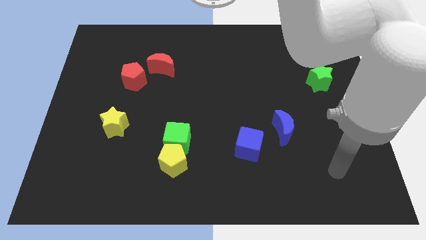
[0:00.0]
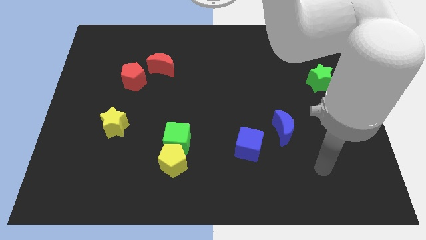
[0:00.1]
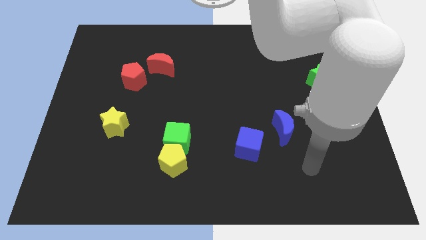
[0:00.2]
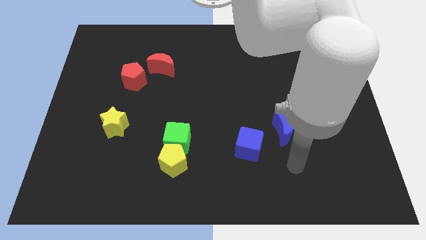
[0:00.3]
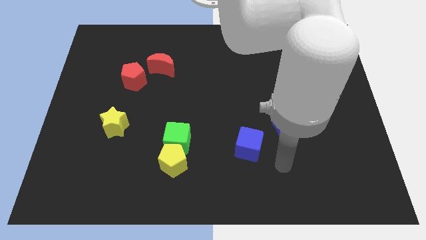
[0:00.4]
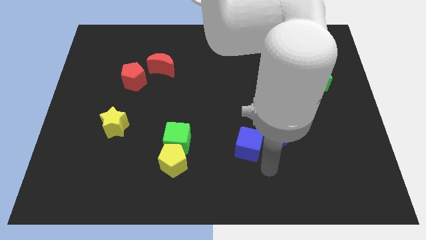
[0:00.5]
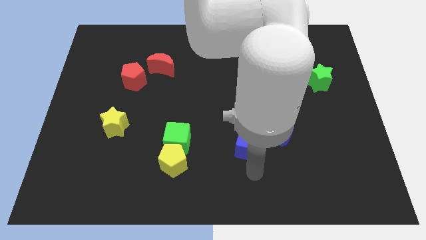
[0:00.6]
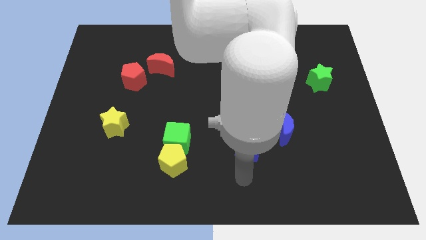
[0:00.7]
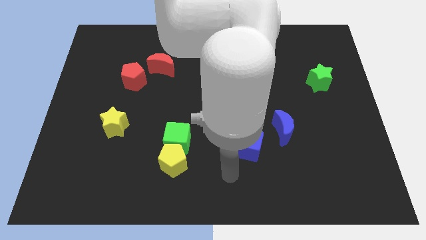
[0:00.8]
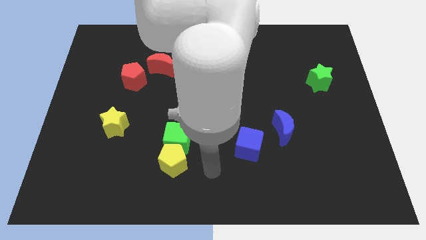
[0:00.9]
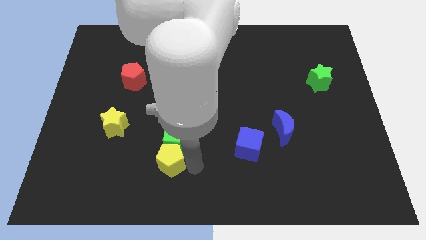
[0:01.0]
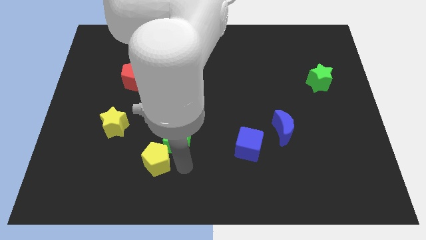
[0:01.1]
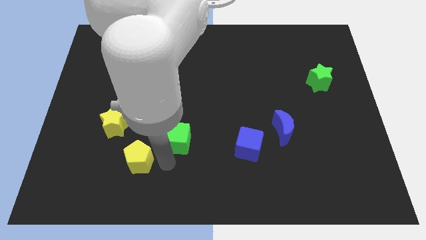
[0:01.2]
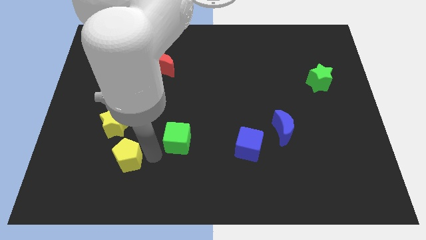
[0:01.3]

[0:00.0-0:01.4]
move the green cube away from the yellow pentagon

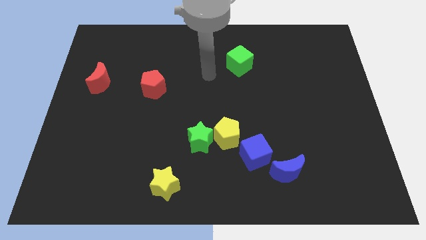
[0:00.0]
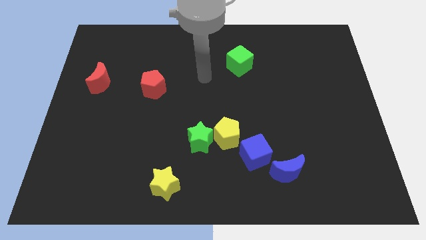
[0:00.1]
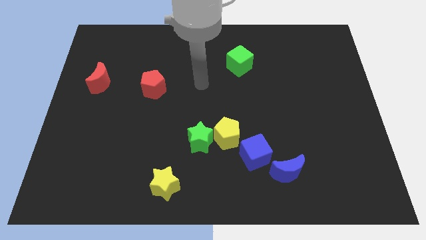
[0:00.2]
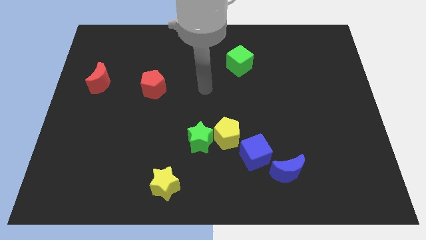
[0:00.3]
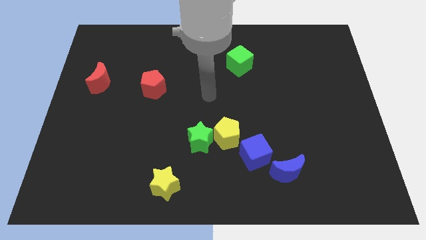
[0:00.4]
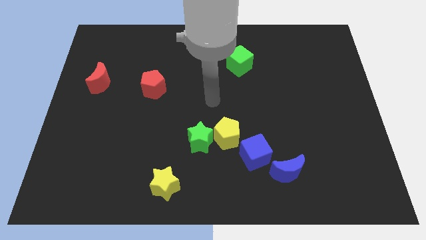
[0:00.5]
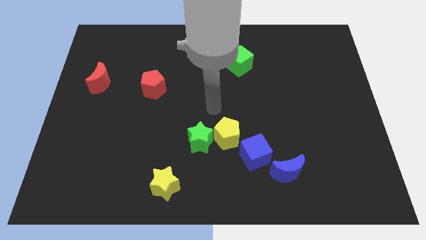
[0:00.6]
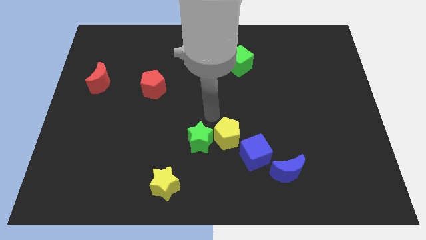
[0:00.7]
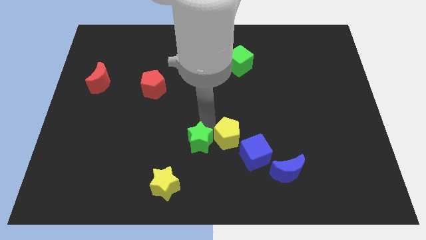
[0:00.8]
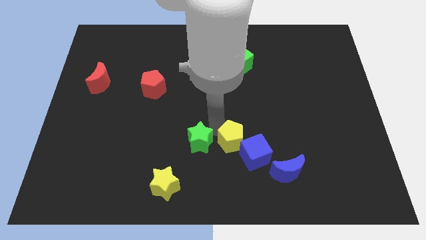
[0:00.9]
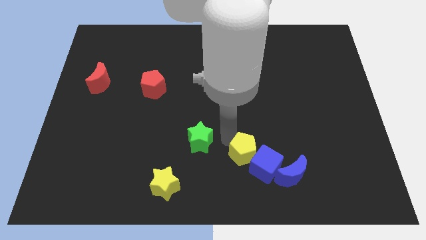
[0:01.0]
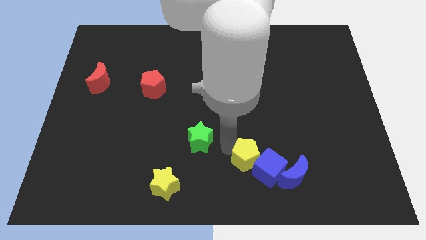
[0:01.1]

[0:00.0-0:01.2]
pull the green star apart from the yellow pentagon

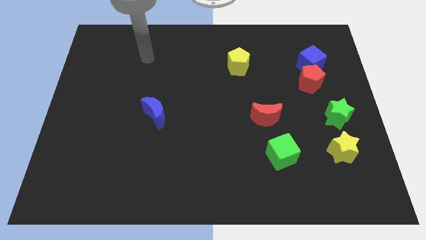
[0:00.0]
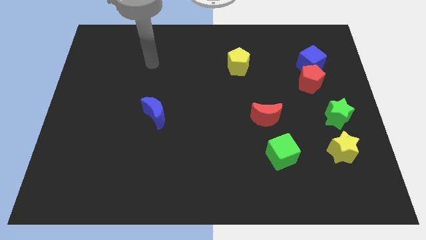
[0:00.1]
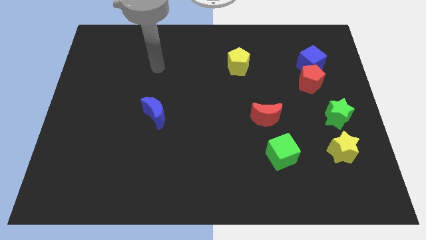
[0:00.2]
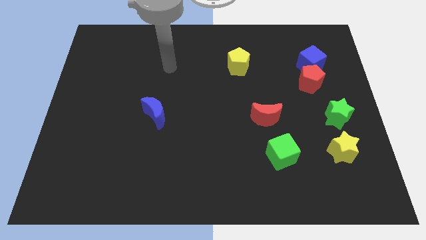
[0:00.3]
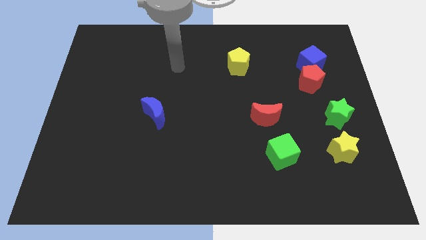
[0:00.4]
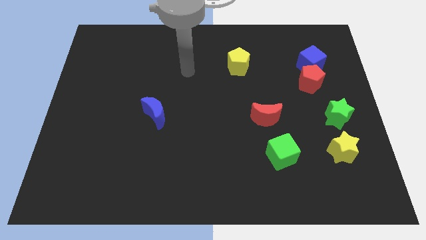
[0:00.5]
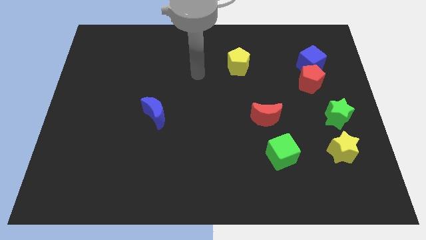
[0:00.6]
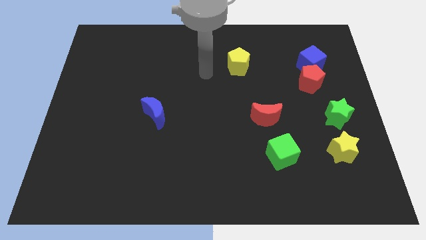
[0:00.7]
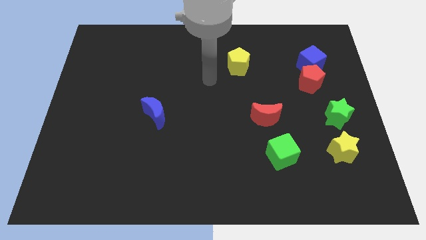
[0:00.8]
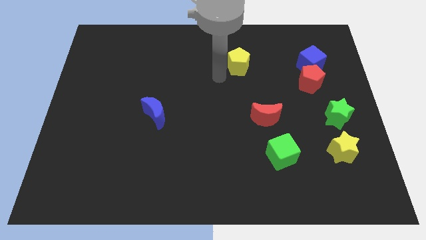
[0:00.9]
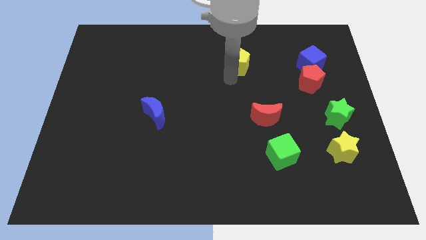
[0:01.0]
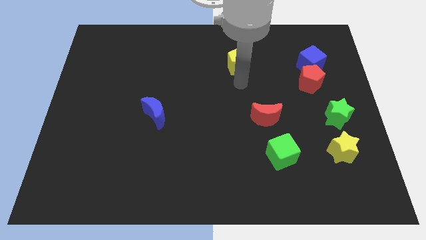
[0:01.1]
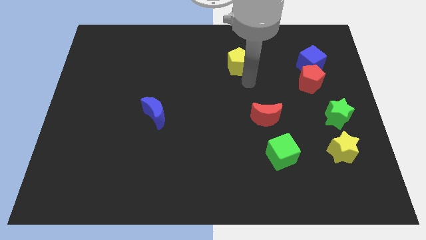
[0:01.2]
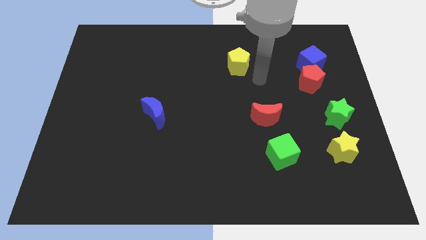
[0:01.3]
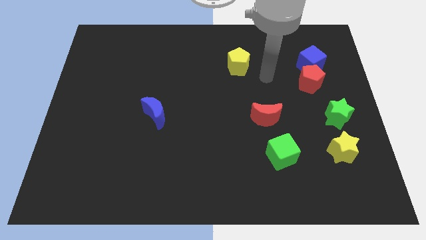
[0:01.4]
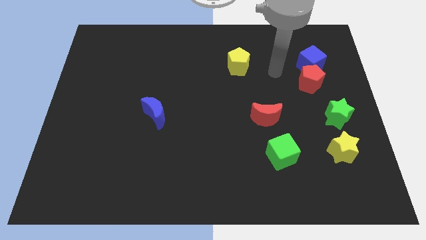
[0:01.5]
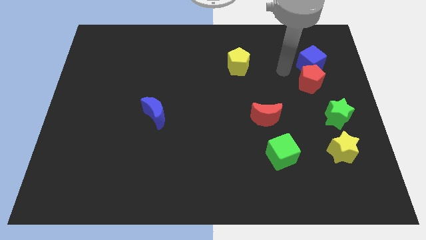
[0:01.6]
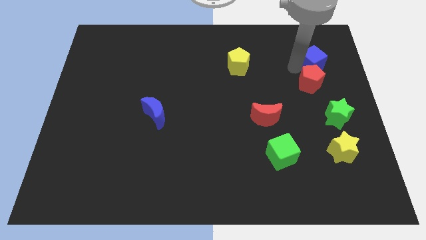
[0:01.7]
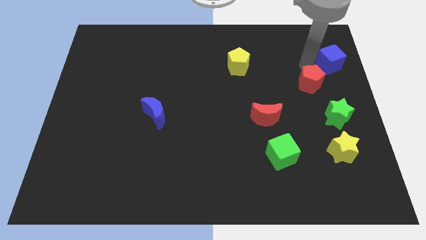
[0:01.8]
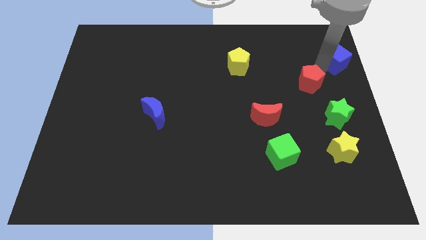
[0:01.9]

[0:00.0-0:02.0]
pull the red pentagon apart from the blue cube

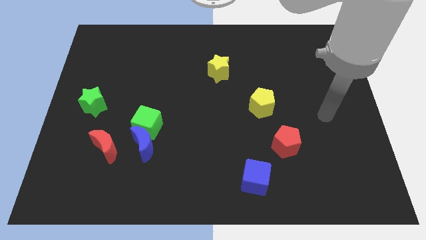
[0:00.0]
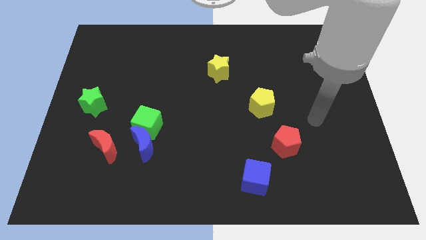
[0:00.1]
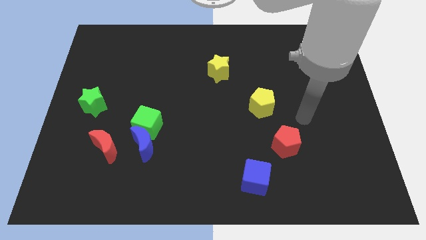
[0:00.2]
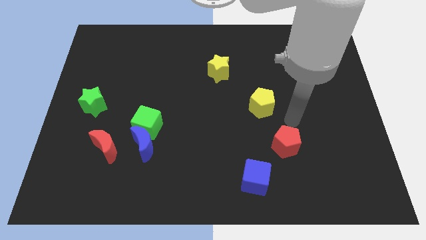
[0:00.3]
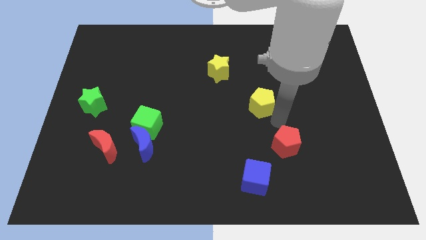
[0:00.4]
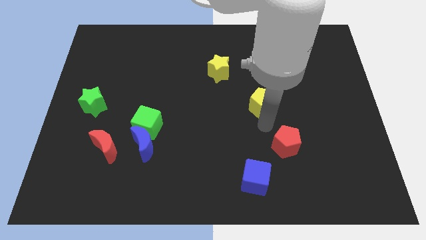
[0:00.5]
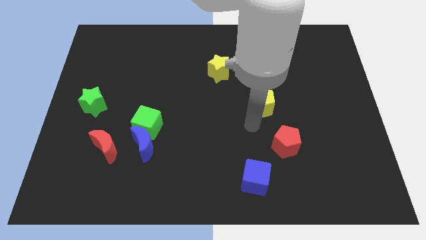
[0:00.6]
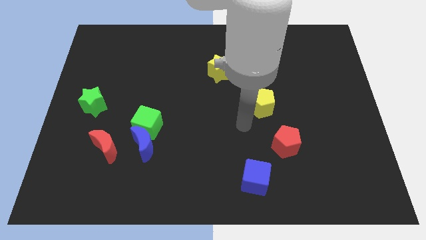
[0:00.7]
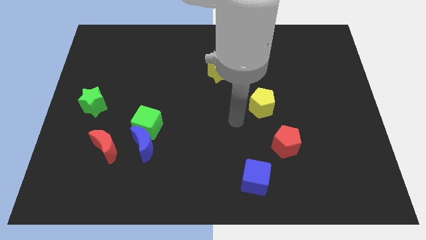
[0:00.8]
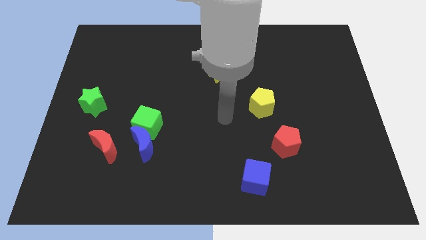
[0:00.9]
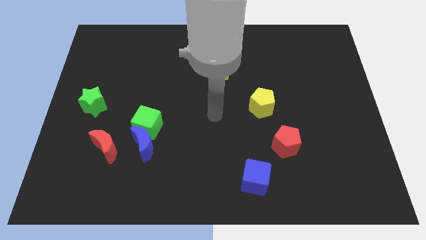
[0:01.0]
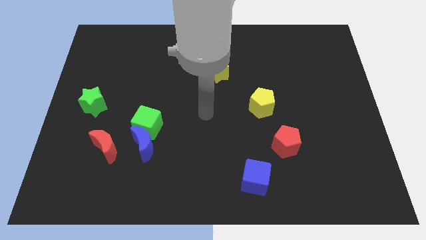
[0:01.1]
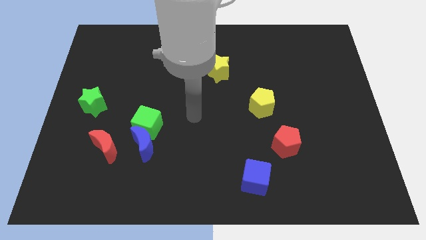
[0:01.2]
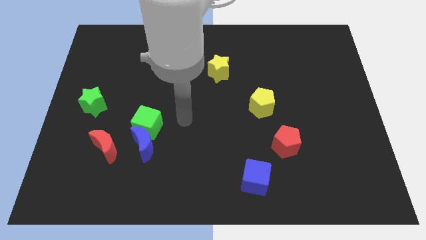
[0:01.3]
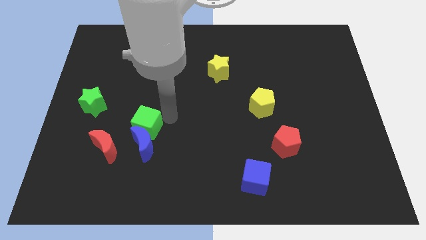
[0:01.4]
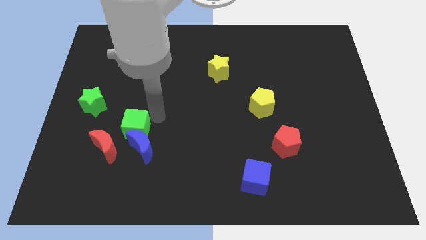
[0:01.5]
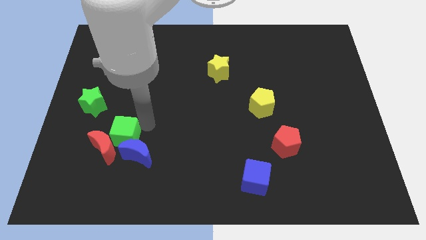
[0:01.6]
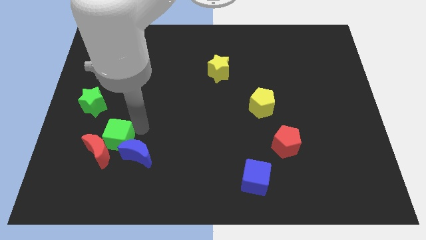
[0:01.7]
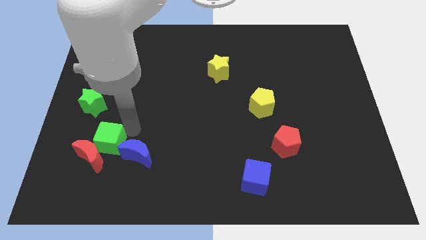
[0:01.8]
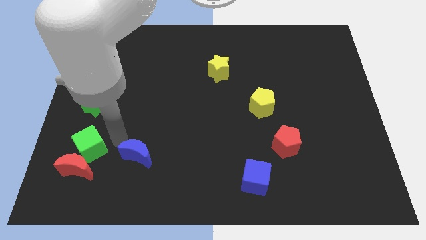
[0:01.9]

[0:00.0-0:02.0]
pull the blue moon apart from the green cube and red moon

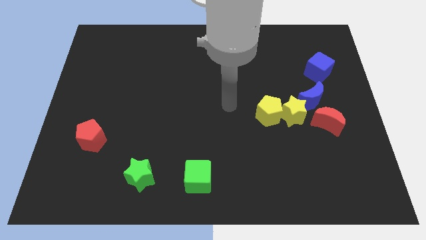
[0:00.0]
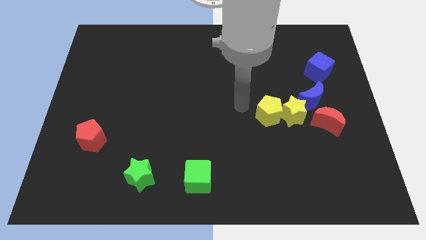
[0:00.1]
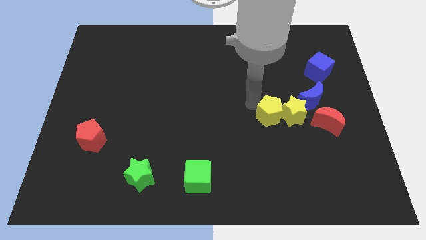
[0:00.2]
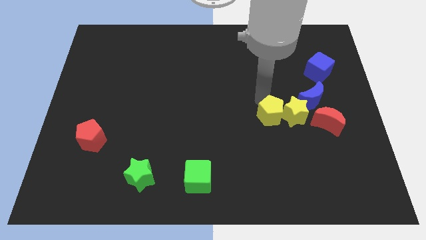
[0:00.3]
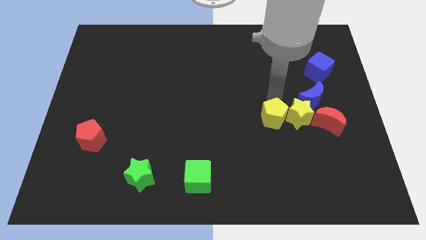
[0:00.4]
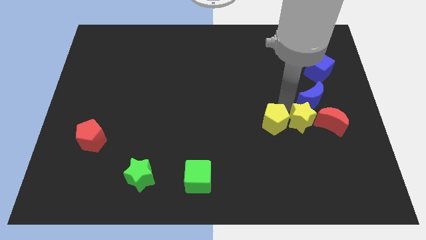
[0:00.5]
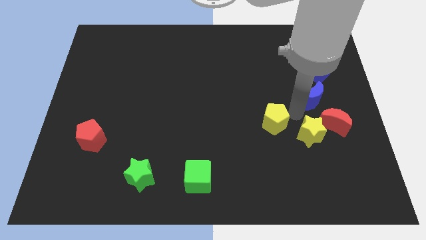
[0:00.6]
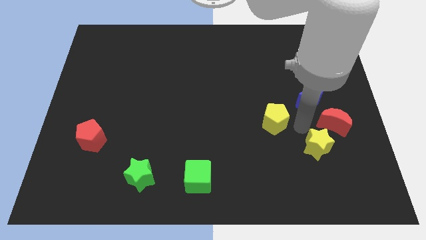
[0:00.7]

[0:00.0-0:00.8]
separate the yellow pentagon from the yellow star

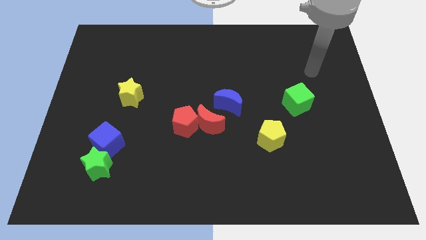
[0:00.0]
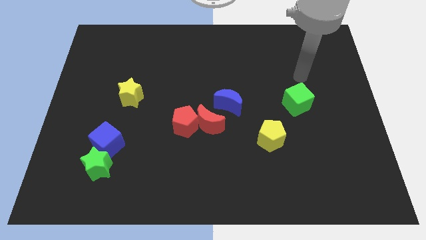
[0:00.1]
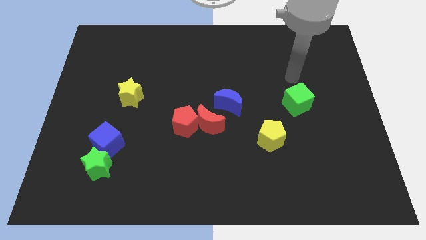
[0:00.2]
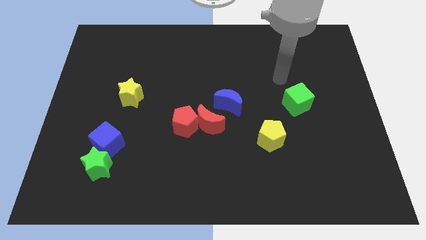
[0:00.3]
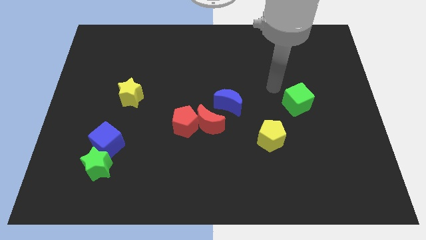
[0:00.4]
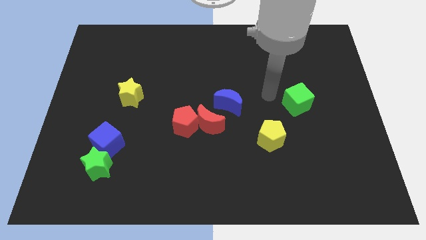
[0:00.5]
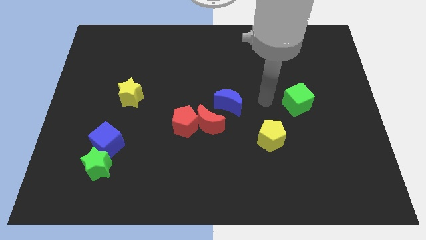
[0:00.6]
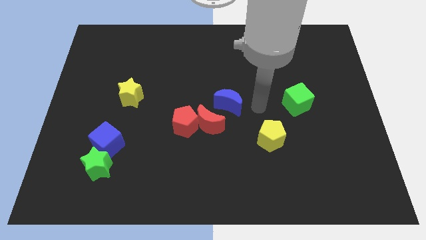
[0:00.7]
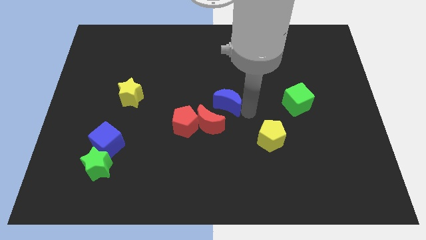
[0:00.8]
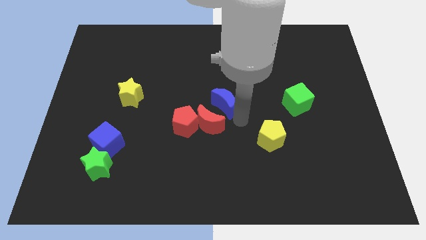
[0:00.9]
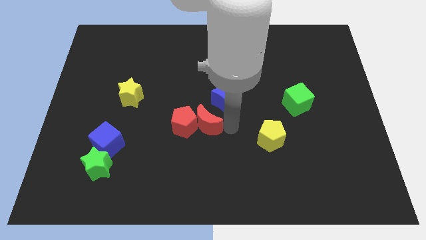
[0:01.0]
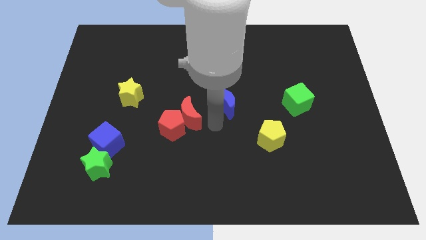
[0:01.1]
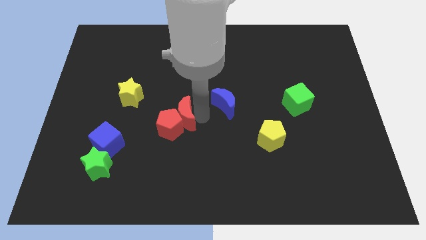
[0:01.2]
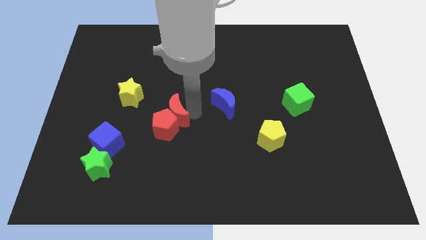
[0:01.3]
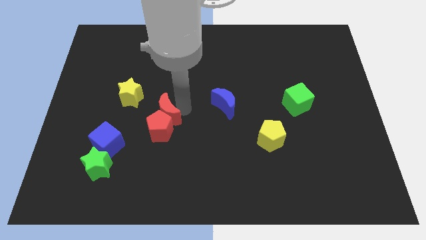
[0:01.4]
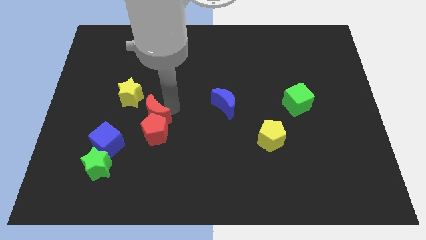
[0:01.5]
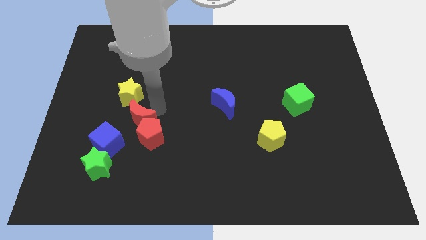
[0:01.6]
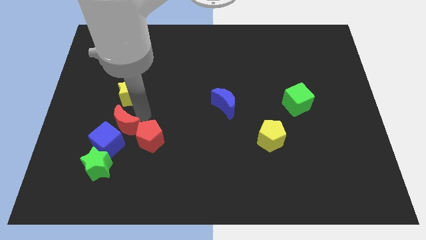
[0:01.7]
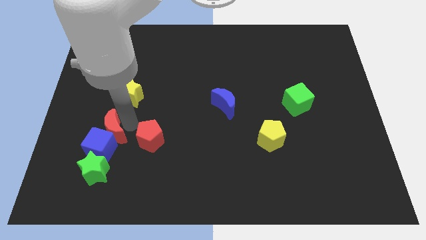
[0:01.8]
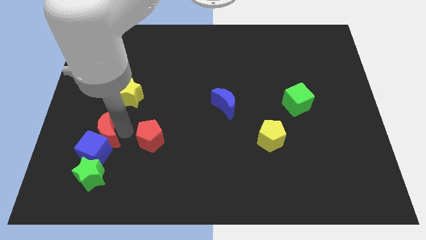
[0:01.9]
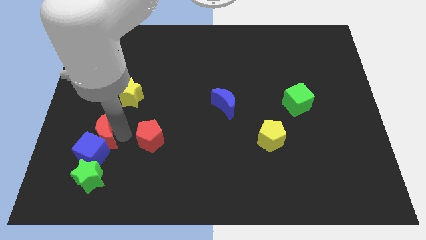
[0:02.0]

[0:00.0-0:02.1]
pull the red pentagon apart from the red moon
